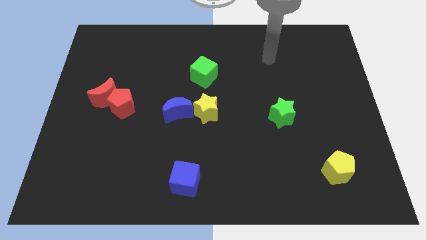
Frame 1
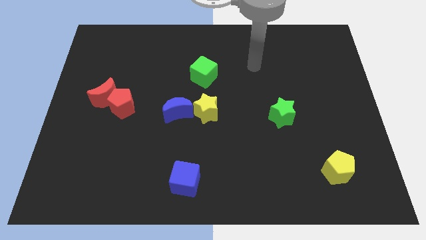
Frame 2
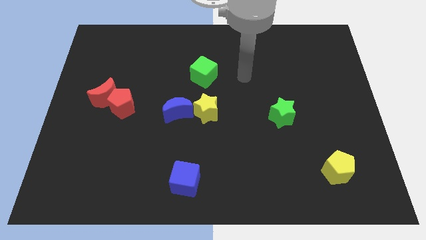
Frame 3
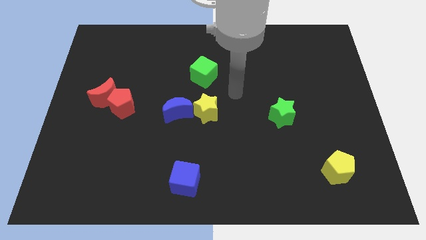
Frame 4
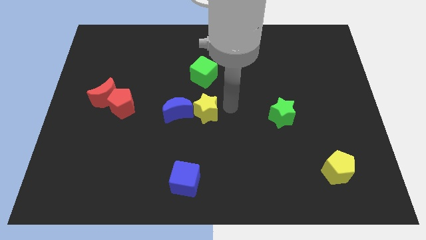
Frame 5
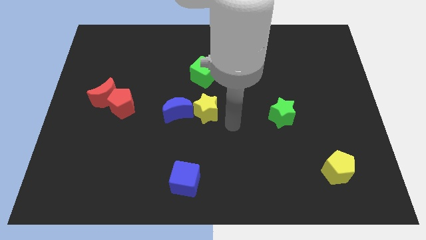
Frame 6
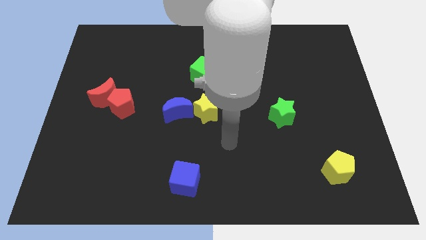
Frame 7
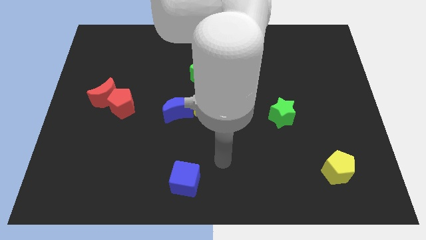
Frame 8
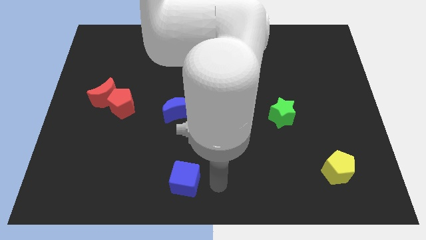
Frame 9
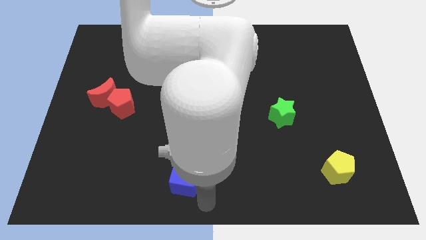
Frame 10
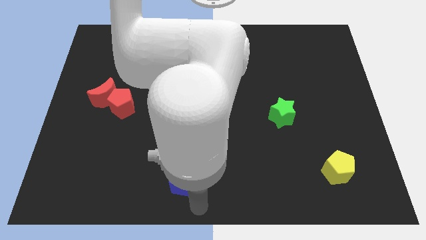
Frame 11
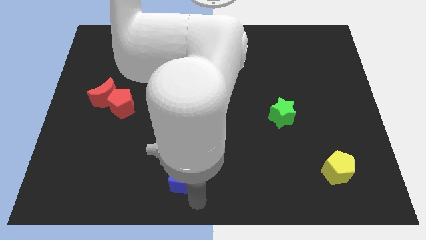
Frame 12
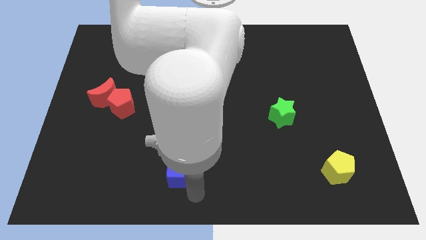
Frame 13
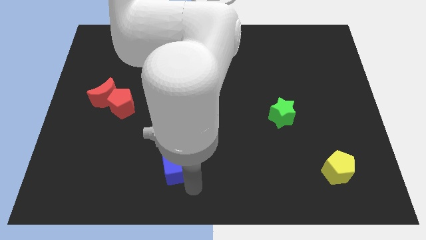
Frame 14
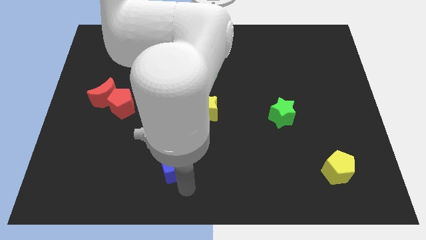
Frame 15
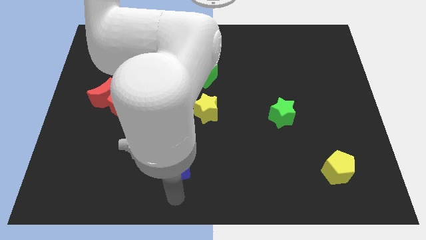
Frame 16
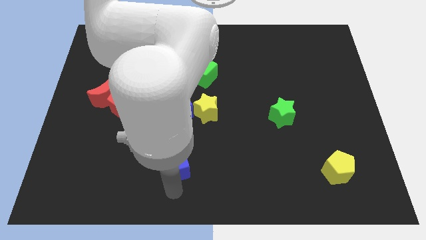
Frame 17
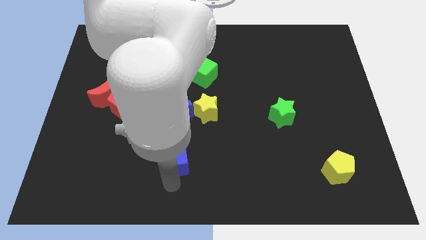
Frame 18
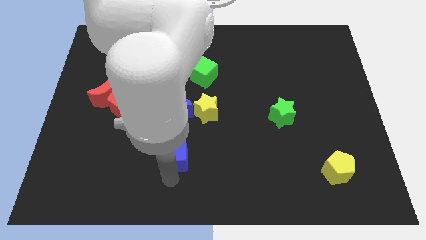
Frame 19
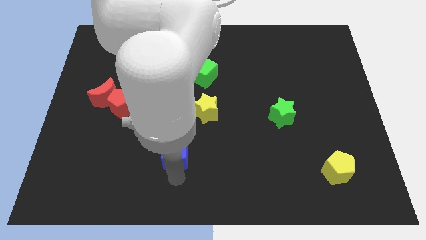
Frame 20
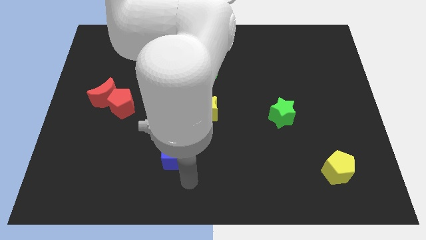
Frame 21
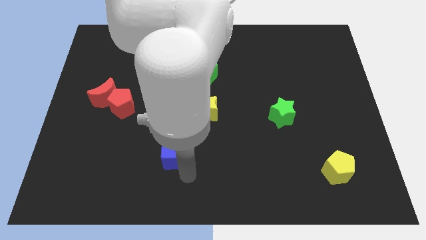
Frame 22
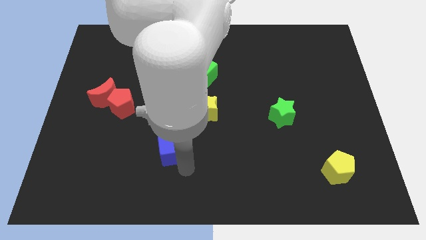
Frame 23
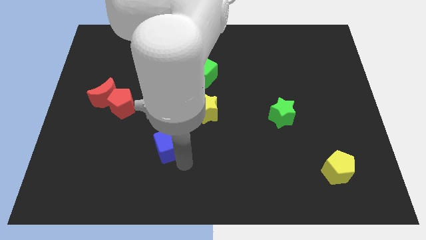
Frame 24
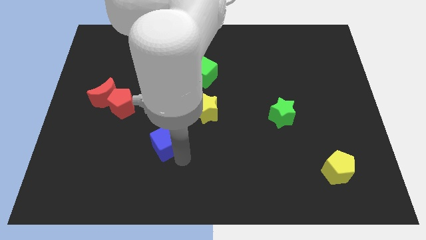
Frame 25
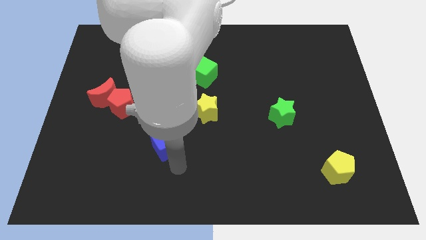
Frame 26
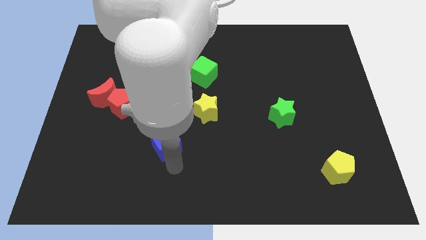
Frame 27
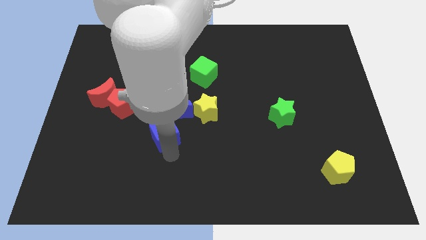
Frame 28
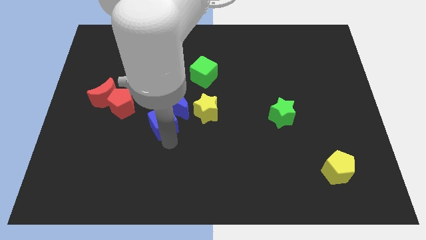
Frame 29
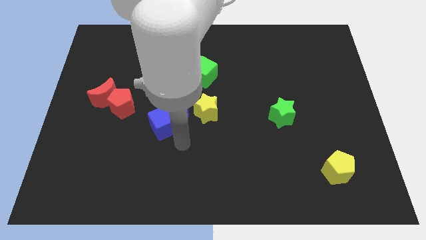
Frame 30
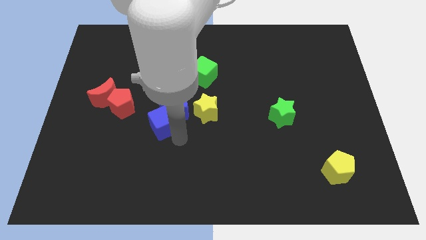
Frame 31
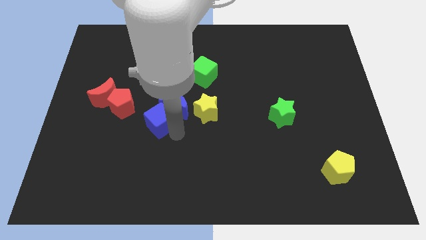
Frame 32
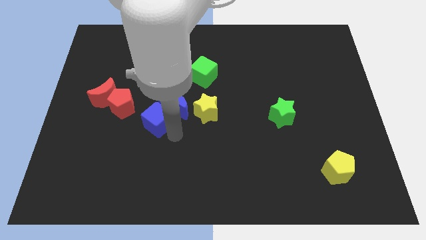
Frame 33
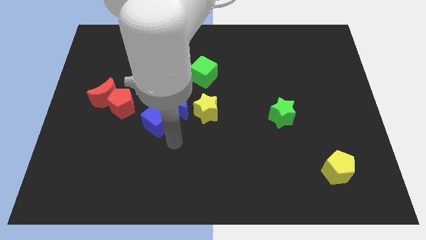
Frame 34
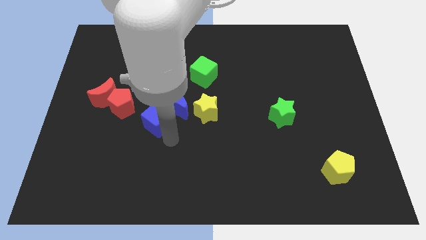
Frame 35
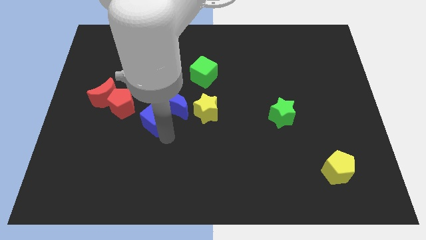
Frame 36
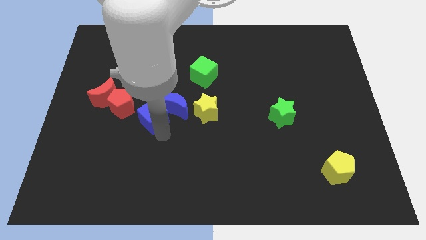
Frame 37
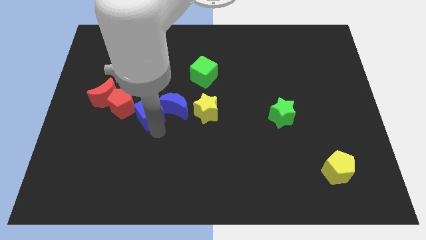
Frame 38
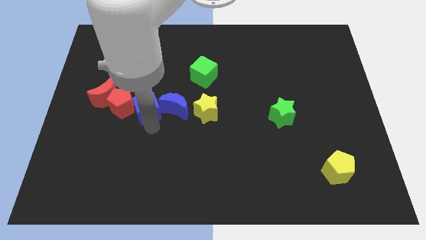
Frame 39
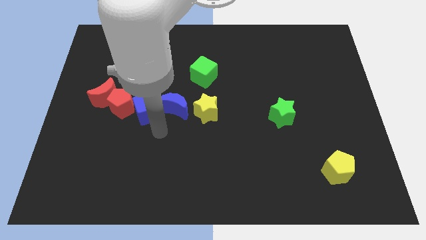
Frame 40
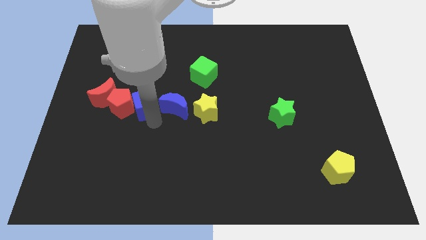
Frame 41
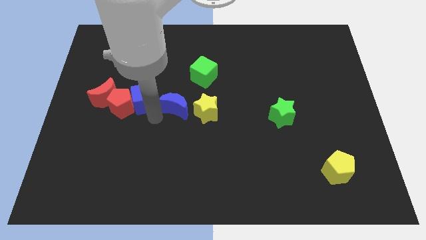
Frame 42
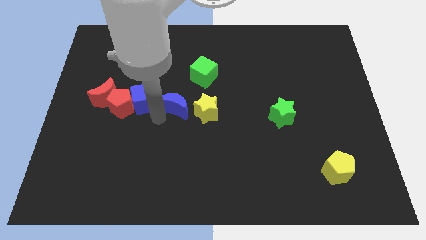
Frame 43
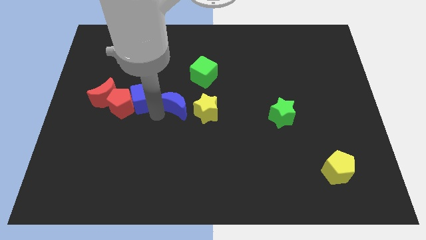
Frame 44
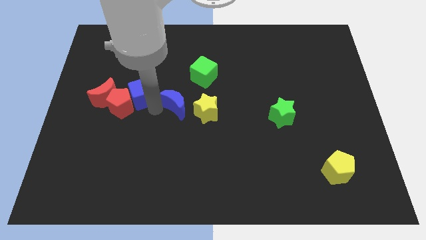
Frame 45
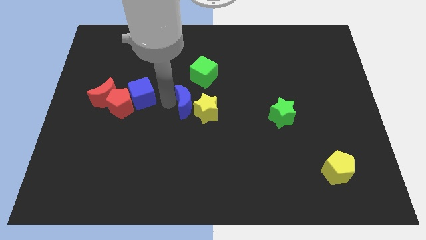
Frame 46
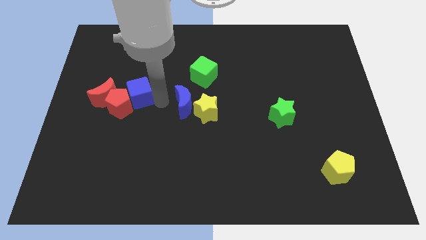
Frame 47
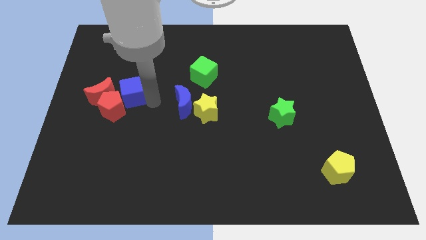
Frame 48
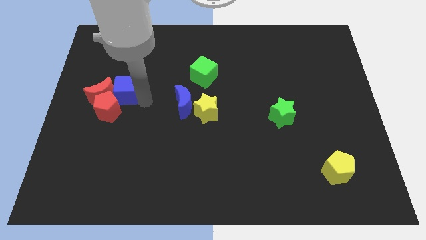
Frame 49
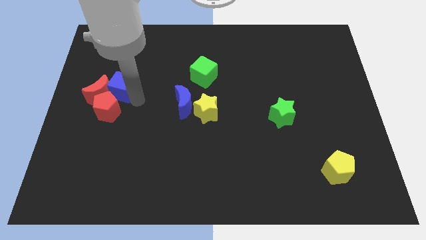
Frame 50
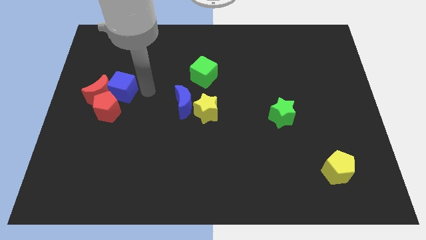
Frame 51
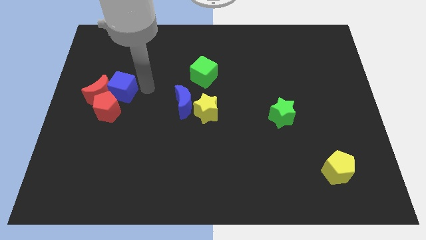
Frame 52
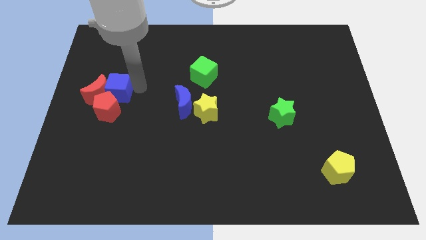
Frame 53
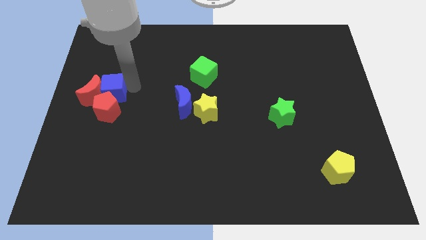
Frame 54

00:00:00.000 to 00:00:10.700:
slide the blue cube to the top left of the red pentagon

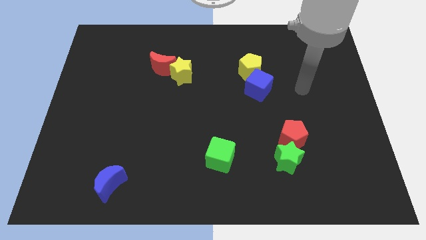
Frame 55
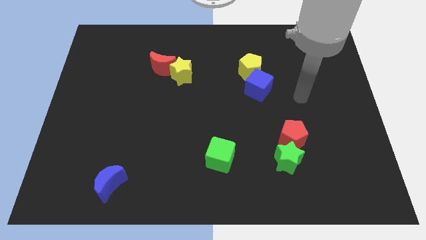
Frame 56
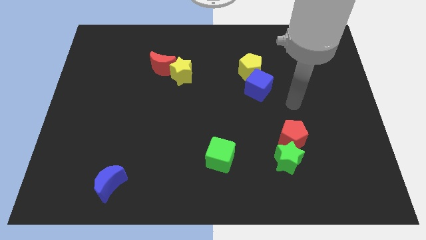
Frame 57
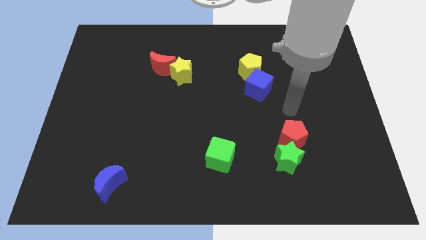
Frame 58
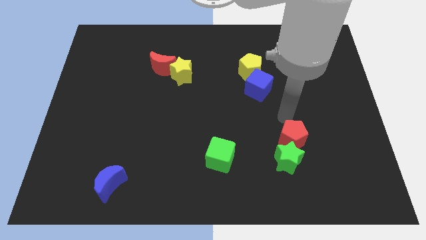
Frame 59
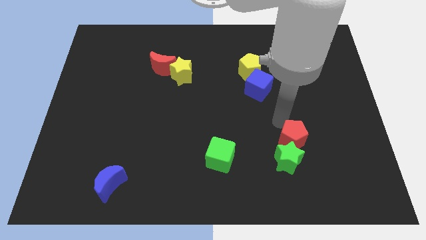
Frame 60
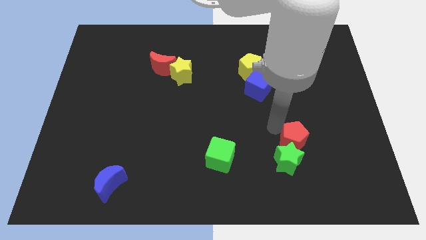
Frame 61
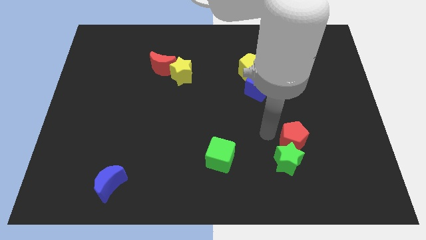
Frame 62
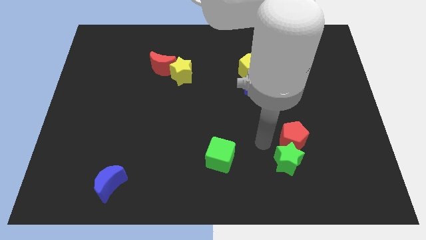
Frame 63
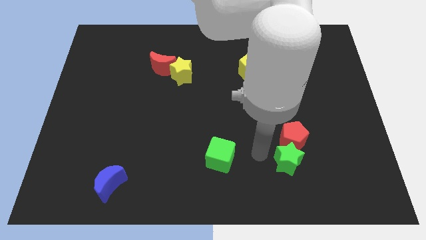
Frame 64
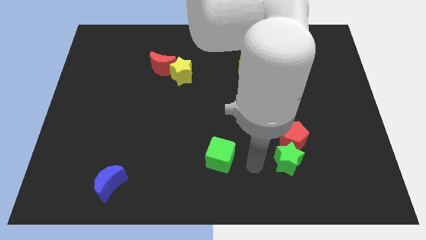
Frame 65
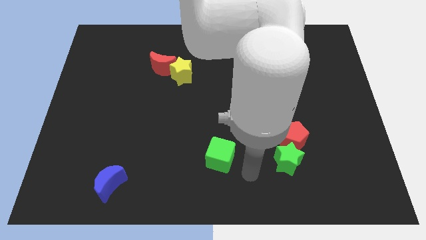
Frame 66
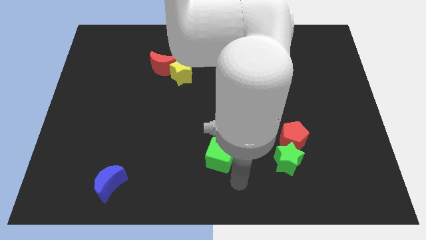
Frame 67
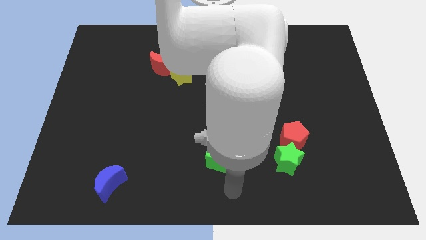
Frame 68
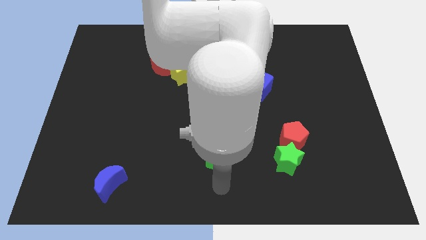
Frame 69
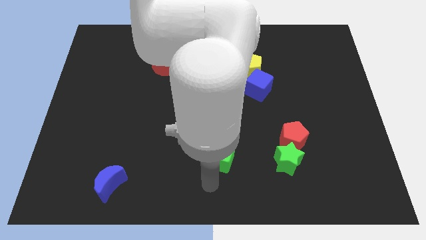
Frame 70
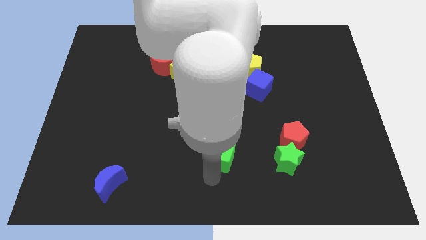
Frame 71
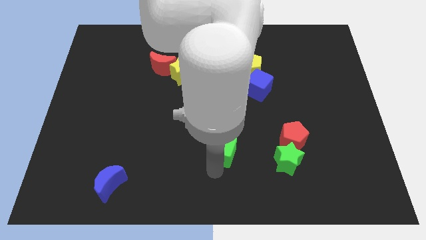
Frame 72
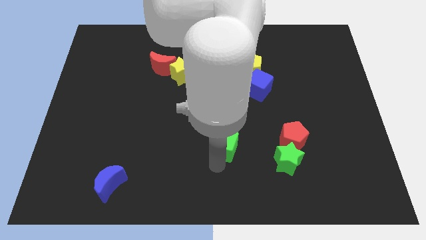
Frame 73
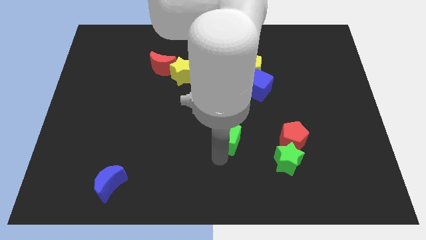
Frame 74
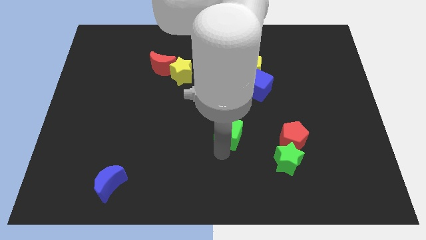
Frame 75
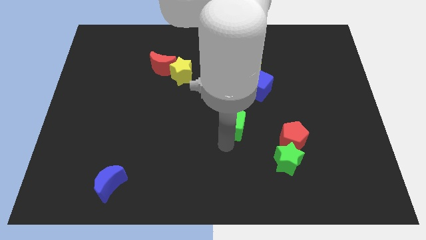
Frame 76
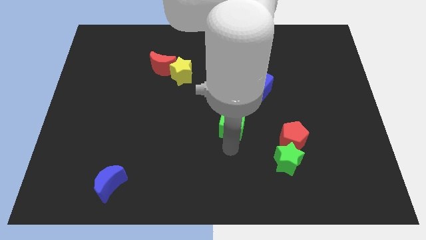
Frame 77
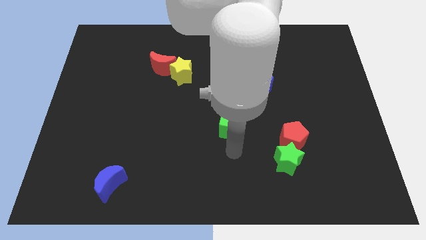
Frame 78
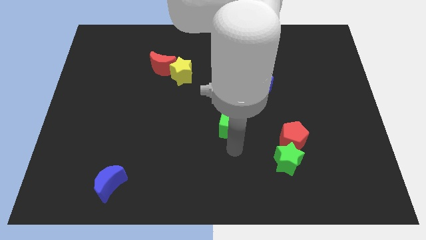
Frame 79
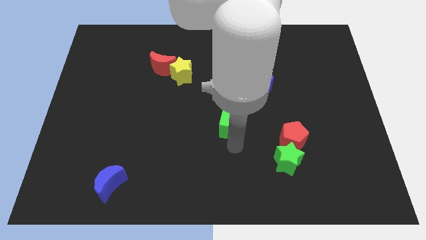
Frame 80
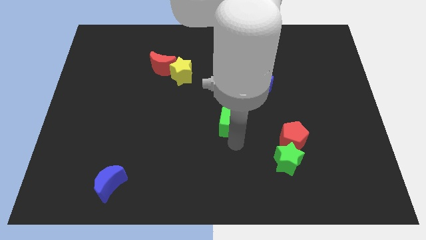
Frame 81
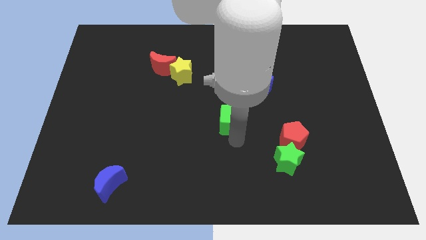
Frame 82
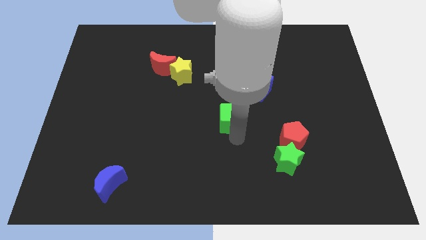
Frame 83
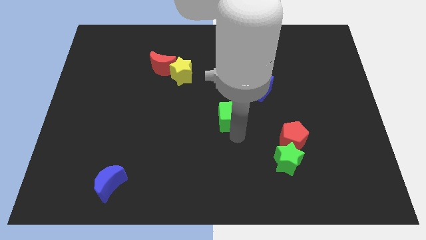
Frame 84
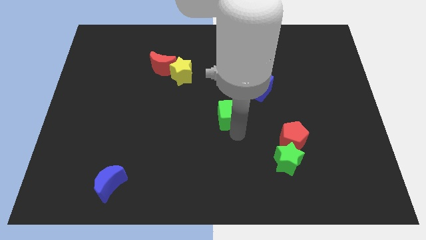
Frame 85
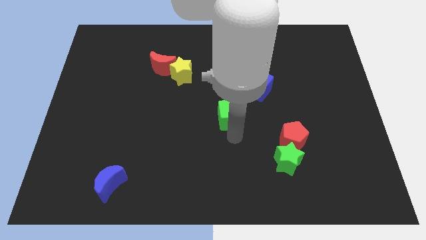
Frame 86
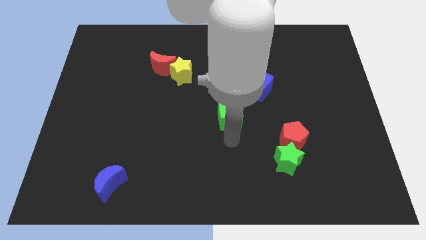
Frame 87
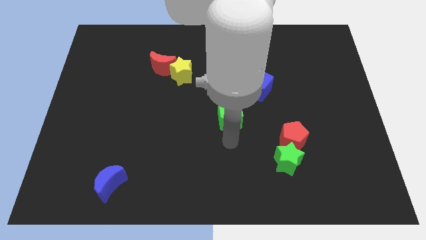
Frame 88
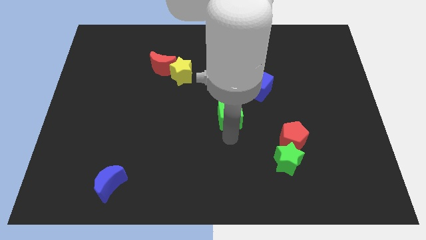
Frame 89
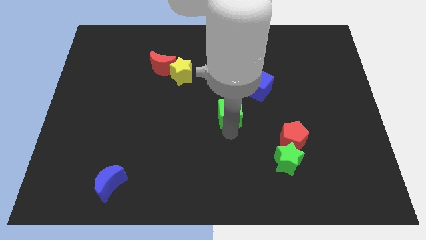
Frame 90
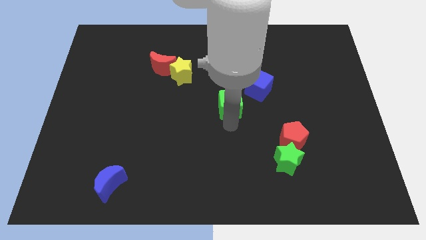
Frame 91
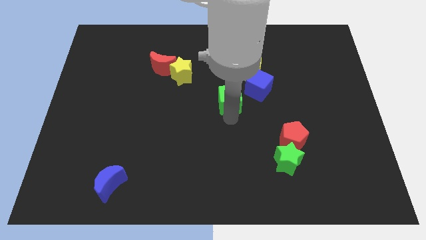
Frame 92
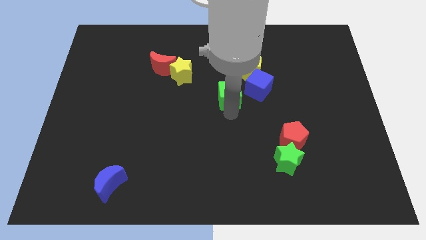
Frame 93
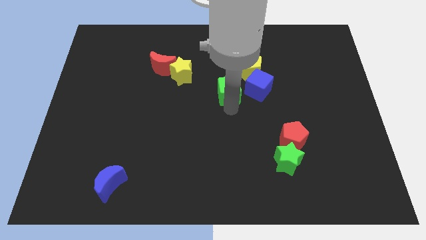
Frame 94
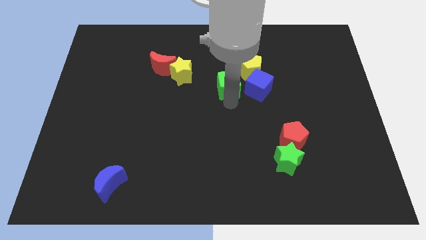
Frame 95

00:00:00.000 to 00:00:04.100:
push the green cube to the right side of the yellow star
